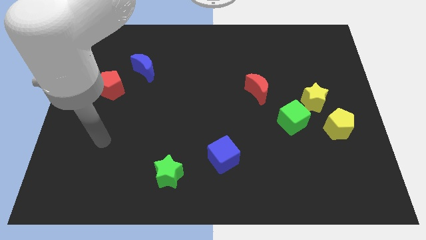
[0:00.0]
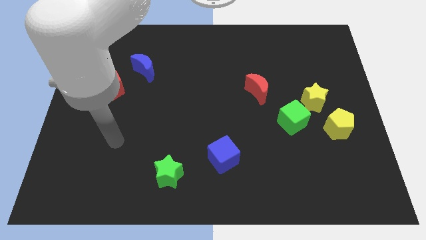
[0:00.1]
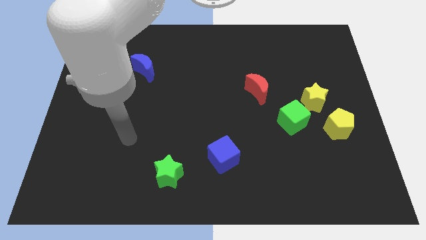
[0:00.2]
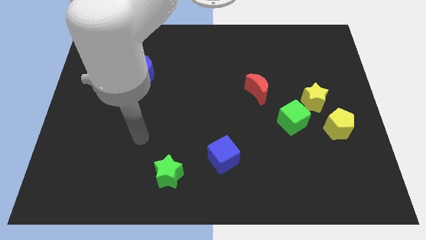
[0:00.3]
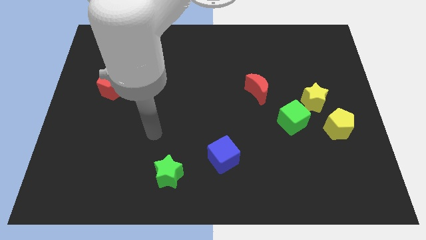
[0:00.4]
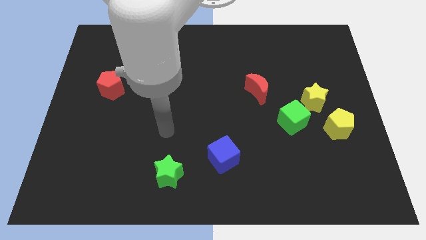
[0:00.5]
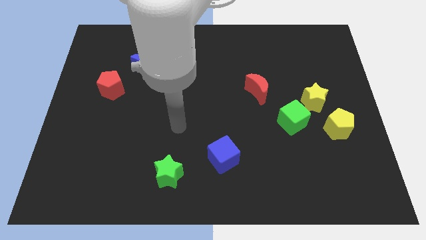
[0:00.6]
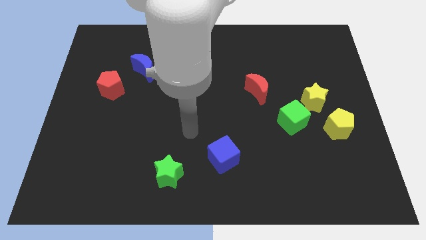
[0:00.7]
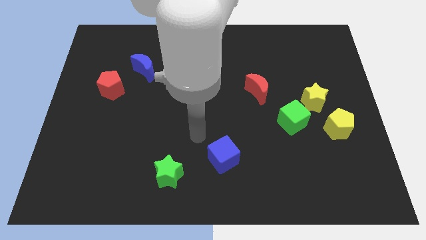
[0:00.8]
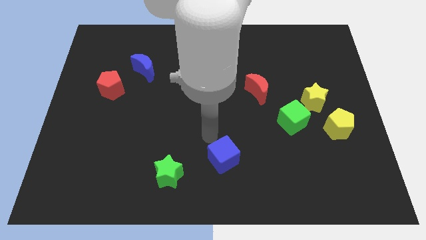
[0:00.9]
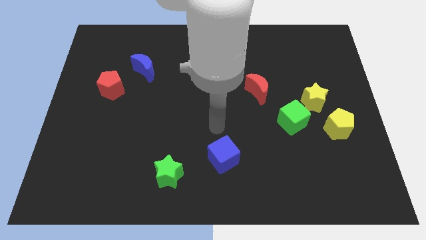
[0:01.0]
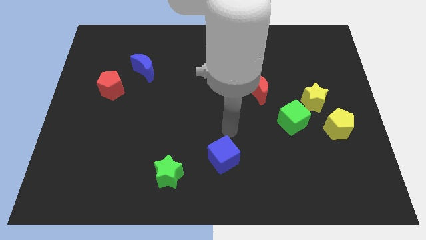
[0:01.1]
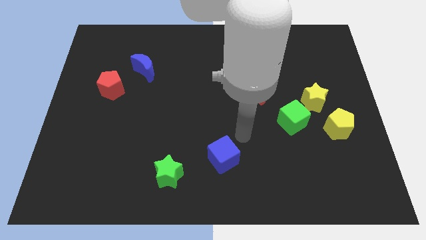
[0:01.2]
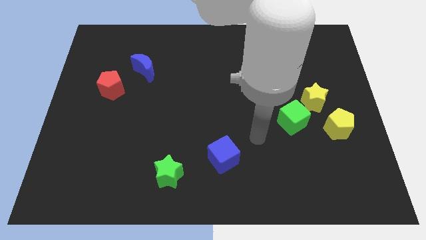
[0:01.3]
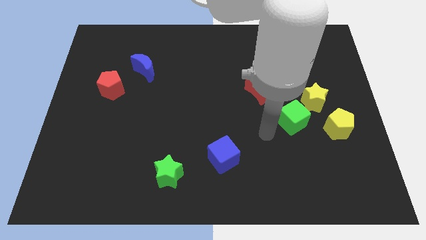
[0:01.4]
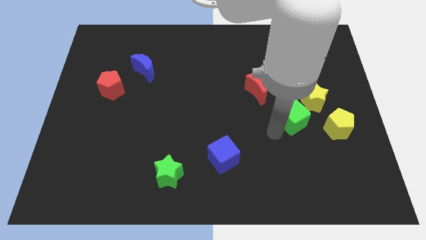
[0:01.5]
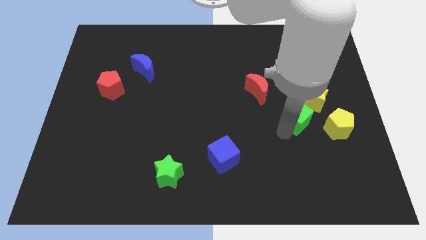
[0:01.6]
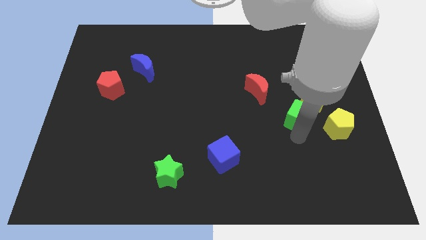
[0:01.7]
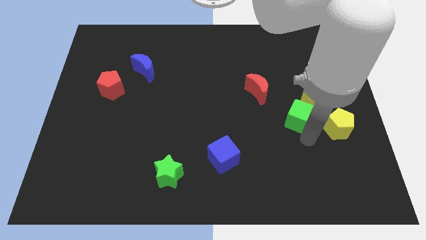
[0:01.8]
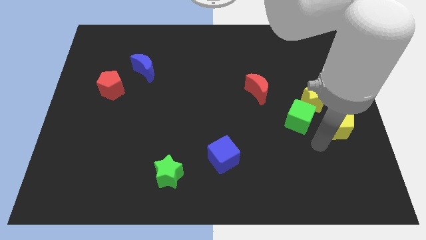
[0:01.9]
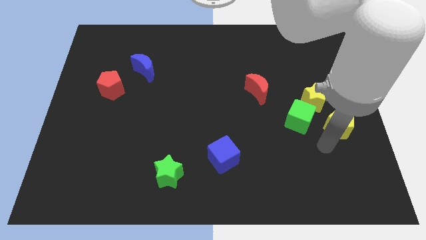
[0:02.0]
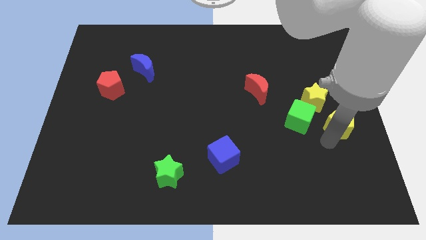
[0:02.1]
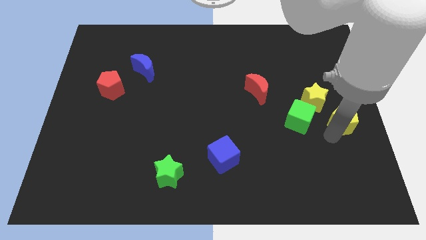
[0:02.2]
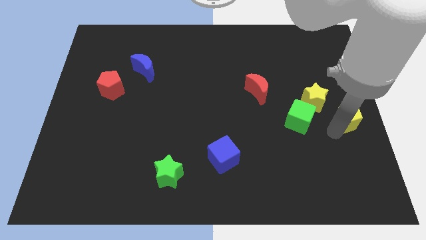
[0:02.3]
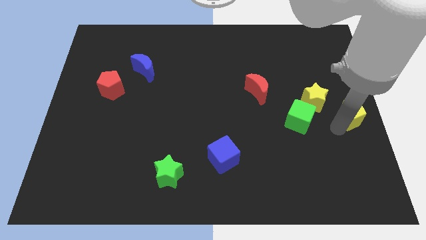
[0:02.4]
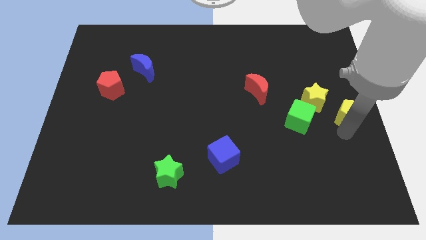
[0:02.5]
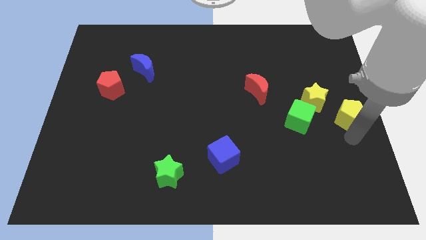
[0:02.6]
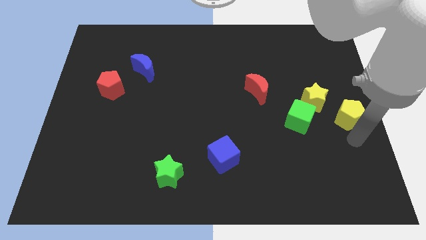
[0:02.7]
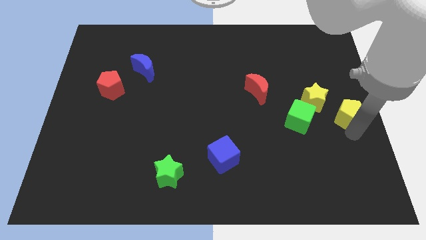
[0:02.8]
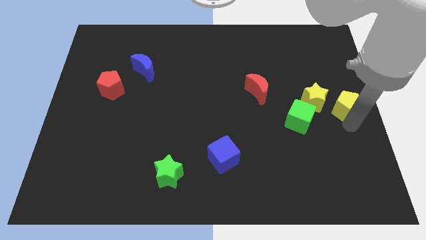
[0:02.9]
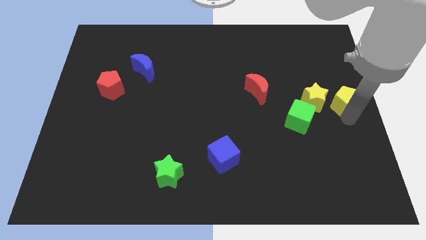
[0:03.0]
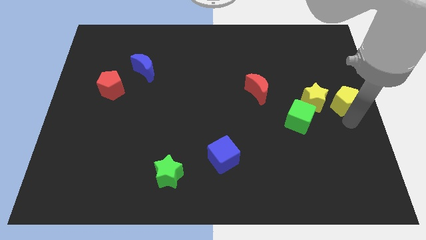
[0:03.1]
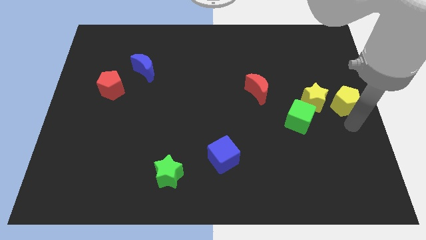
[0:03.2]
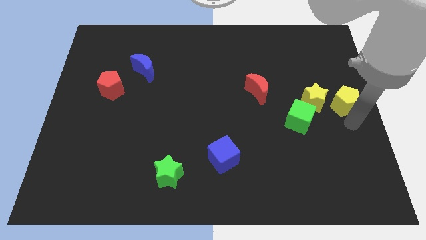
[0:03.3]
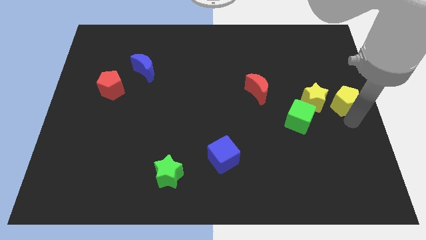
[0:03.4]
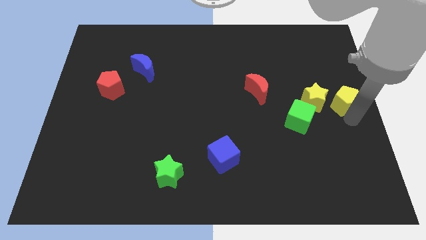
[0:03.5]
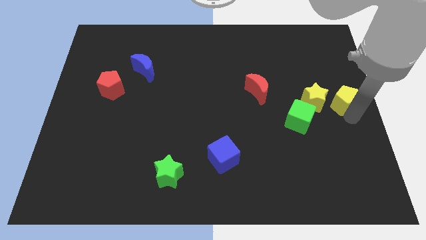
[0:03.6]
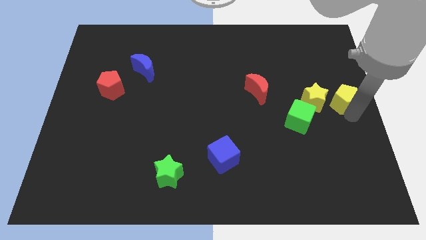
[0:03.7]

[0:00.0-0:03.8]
move the yellow pentagon up a bit

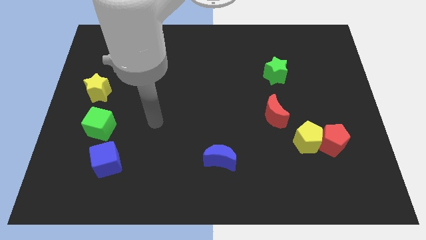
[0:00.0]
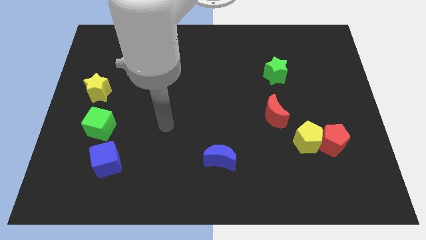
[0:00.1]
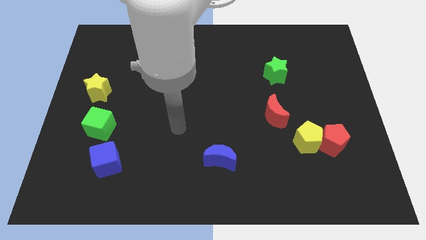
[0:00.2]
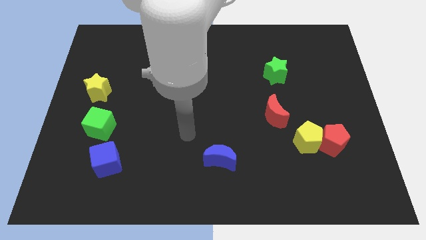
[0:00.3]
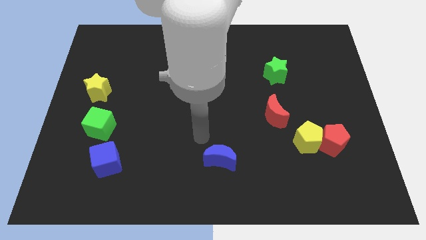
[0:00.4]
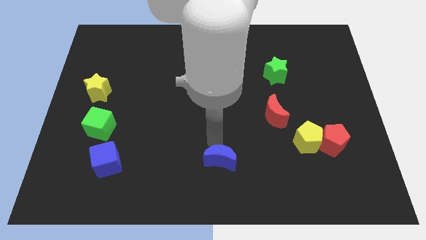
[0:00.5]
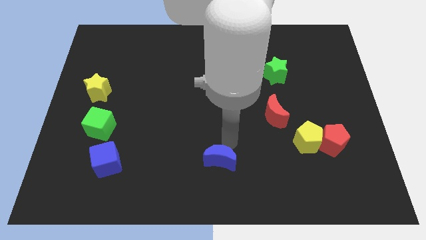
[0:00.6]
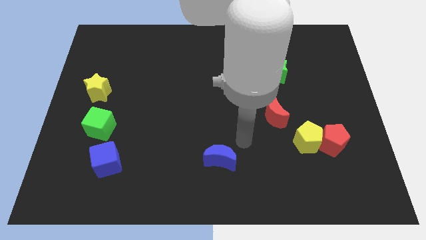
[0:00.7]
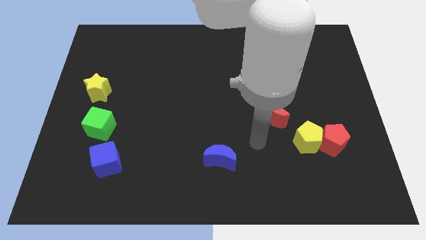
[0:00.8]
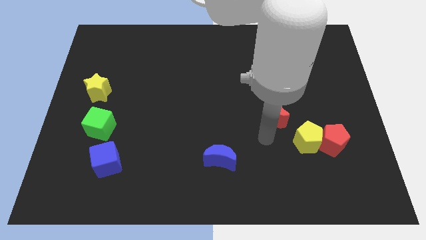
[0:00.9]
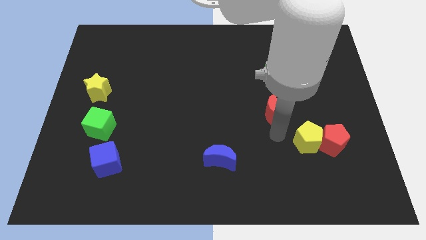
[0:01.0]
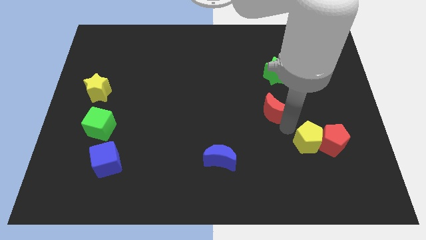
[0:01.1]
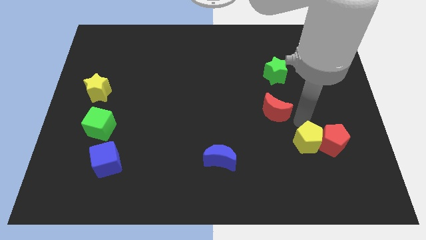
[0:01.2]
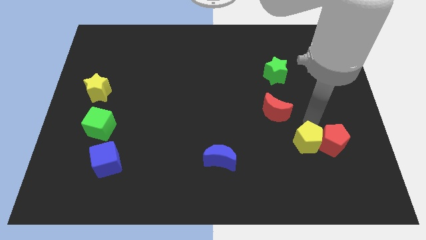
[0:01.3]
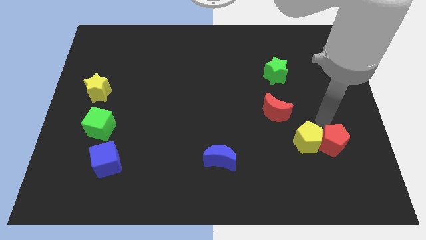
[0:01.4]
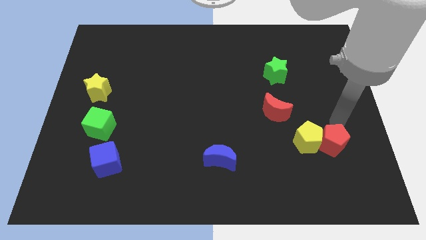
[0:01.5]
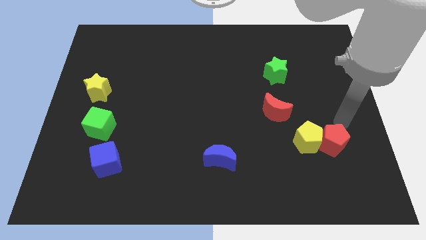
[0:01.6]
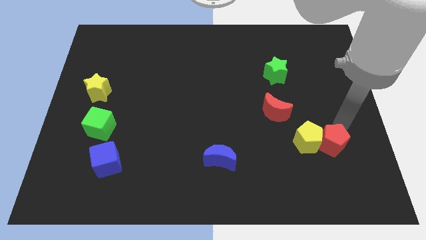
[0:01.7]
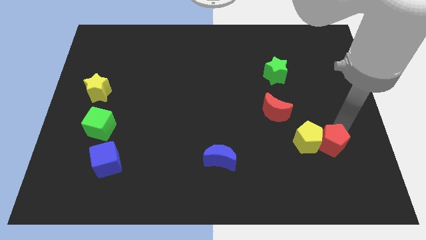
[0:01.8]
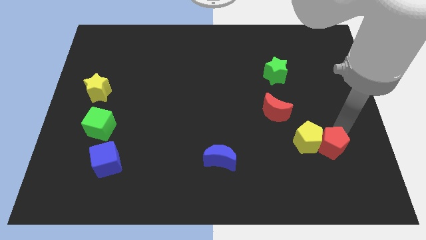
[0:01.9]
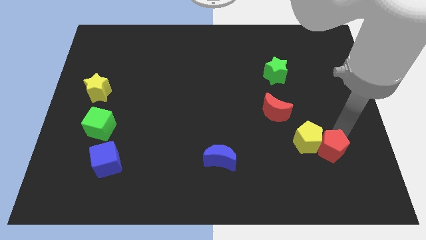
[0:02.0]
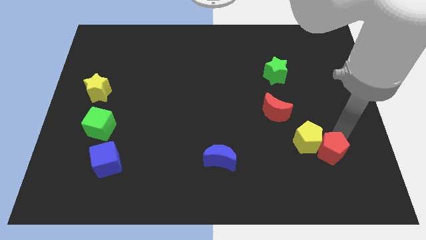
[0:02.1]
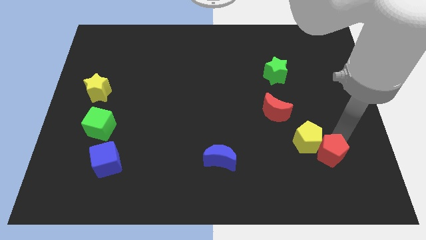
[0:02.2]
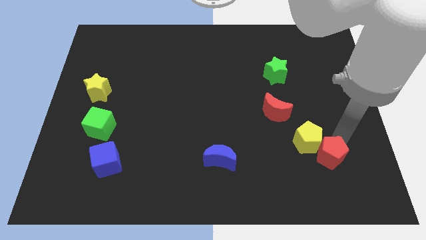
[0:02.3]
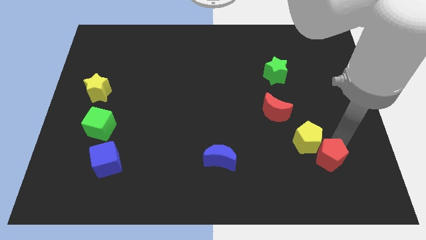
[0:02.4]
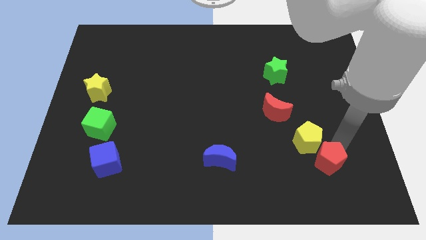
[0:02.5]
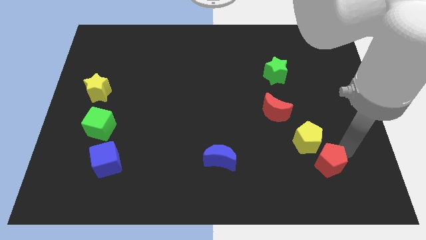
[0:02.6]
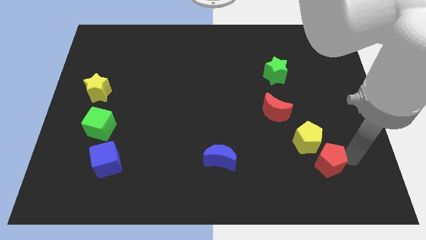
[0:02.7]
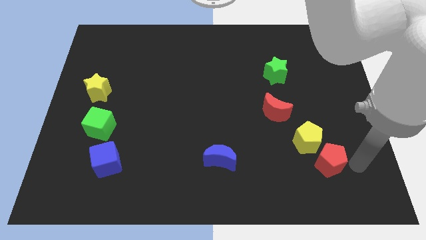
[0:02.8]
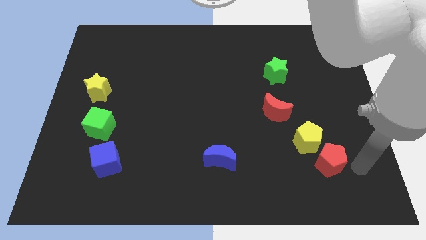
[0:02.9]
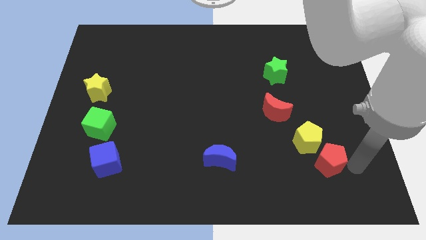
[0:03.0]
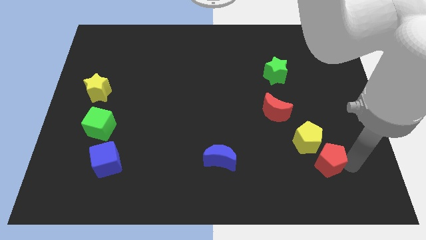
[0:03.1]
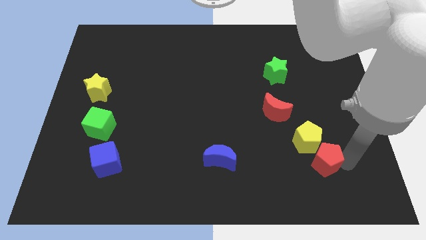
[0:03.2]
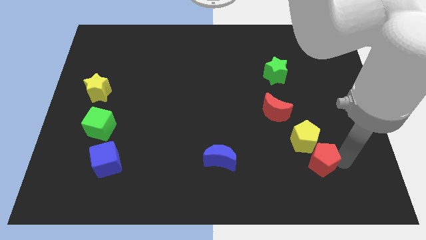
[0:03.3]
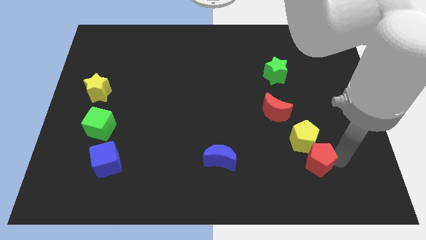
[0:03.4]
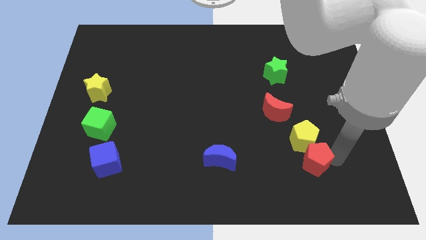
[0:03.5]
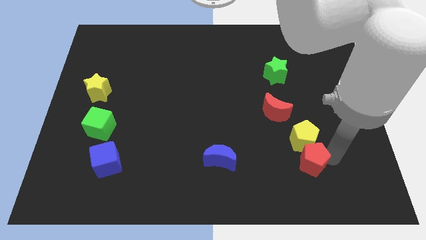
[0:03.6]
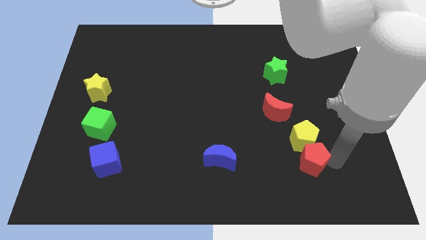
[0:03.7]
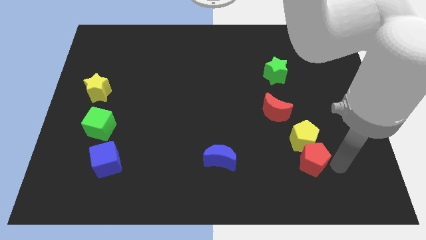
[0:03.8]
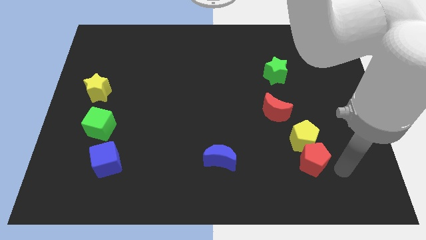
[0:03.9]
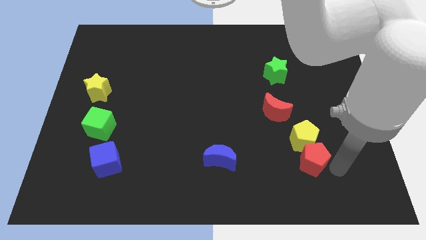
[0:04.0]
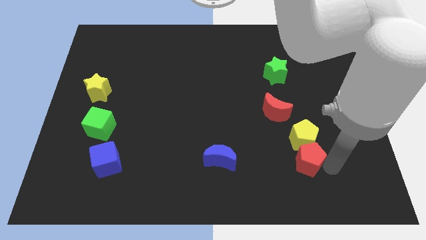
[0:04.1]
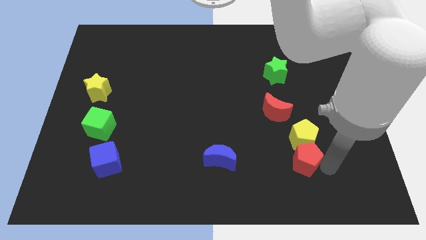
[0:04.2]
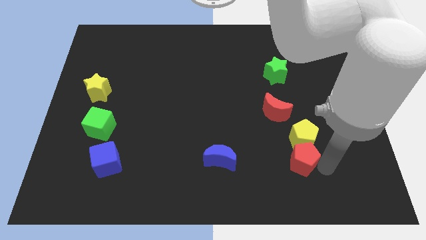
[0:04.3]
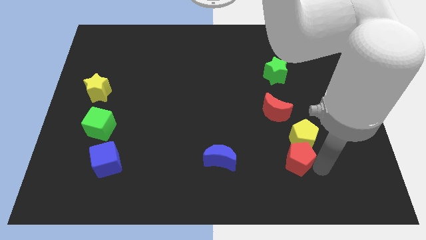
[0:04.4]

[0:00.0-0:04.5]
slightly move the red pentagon to the left
